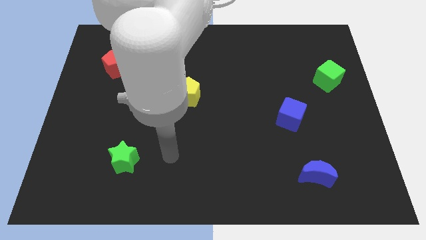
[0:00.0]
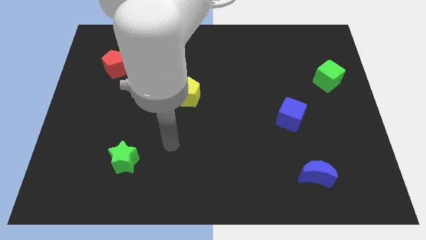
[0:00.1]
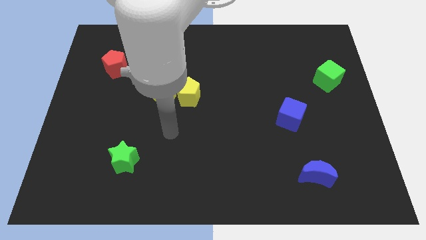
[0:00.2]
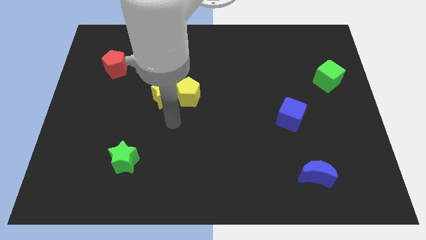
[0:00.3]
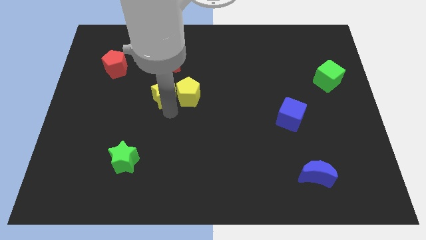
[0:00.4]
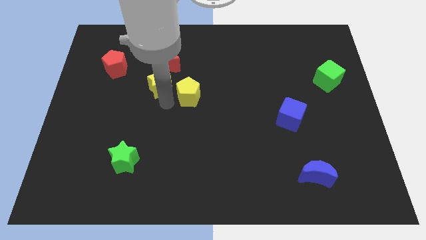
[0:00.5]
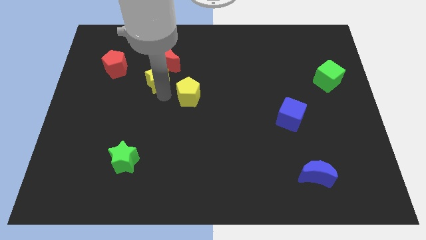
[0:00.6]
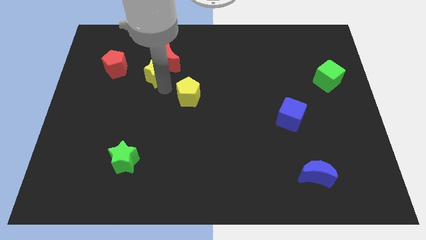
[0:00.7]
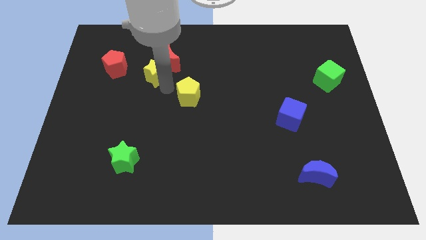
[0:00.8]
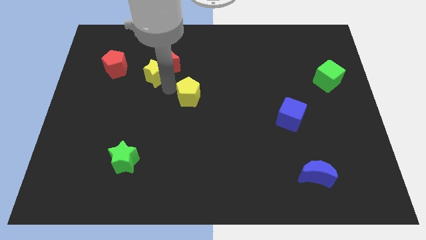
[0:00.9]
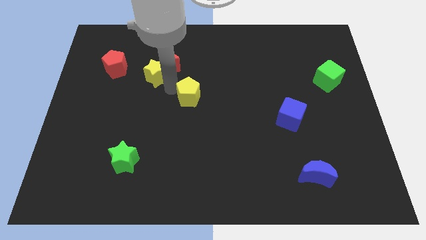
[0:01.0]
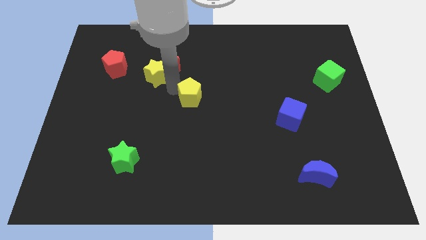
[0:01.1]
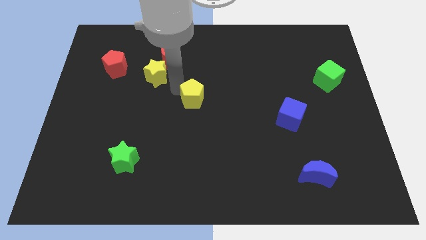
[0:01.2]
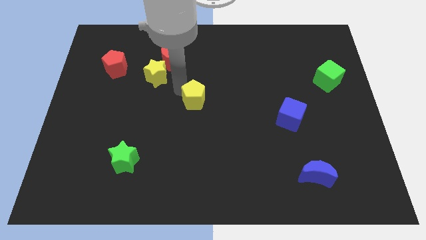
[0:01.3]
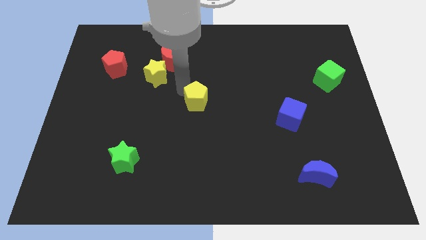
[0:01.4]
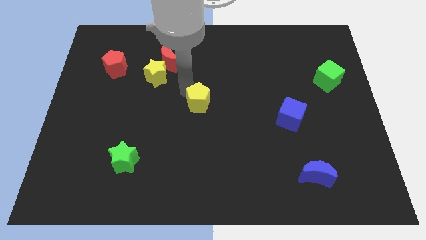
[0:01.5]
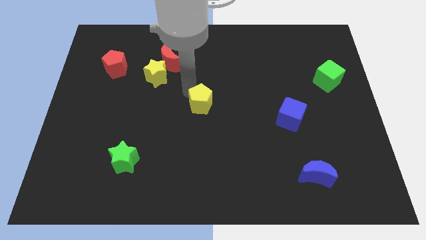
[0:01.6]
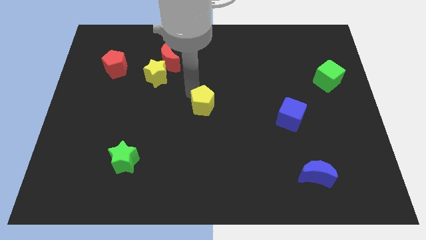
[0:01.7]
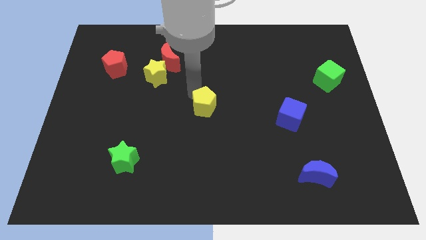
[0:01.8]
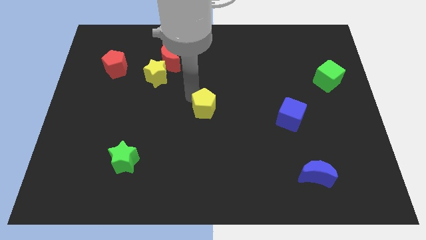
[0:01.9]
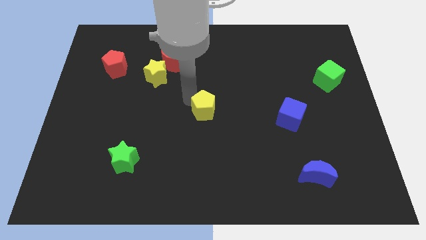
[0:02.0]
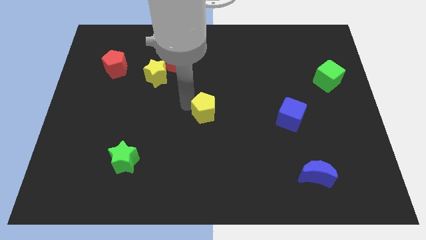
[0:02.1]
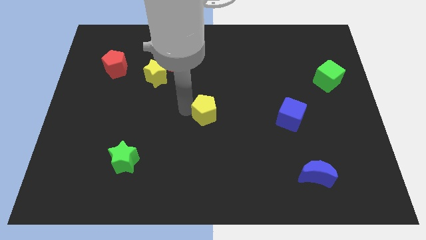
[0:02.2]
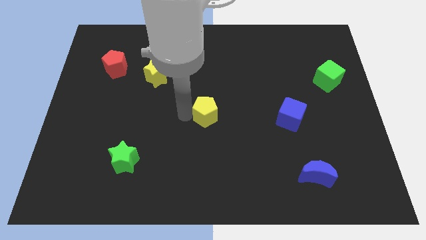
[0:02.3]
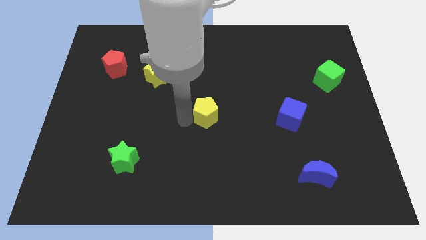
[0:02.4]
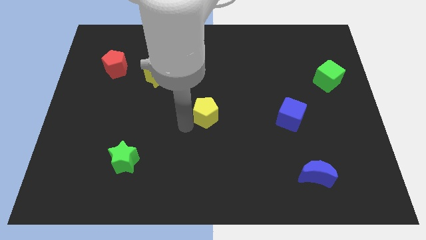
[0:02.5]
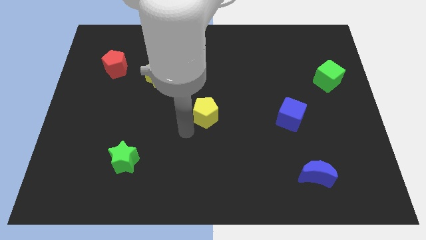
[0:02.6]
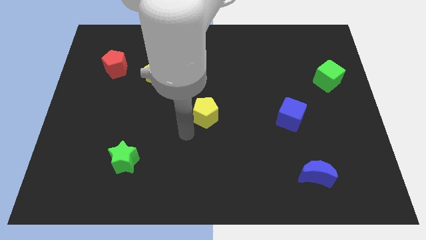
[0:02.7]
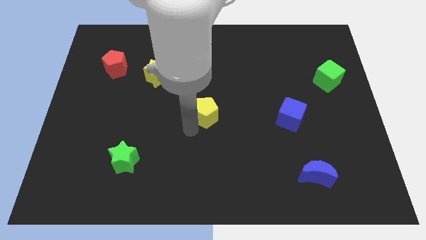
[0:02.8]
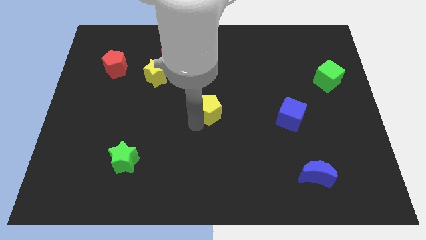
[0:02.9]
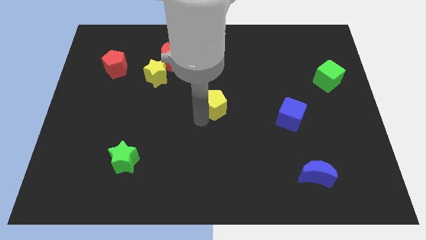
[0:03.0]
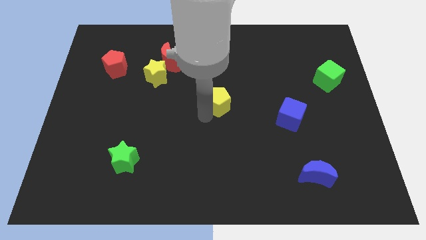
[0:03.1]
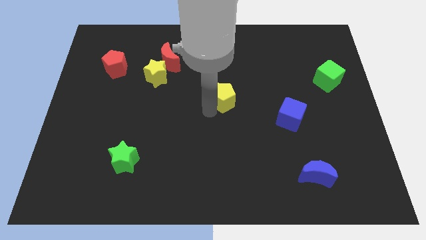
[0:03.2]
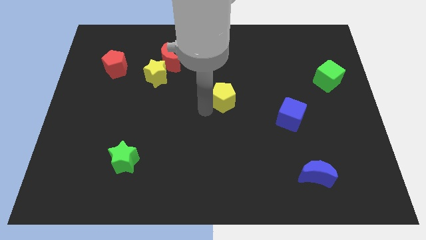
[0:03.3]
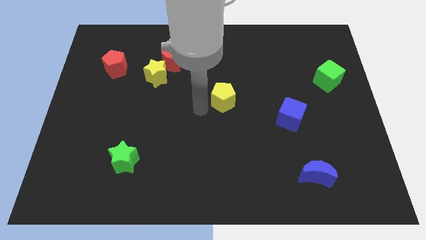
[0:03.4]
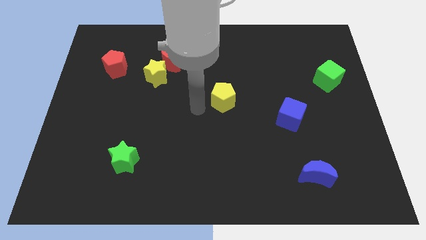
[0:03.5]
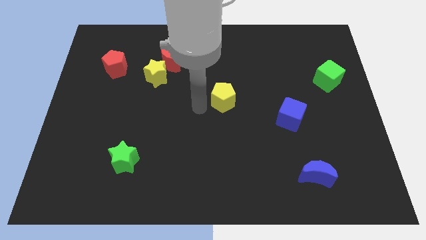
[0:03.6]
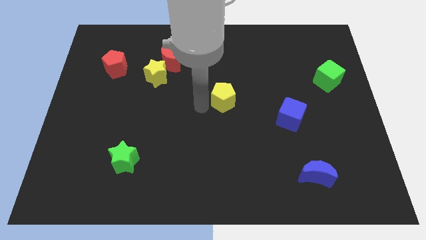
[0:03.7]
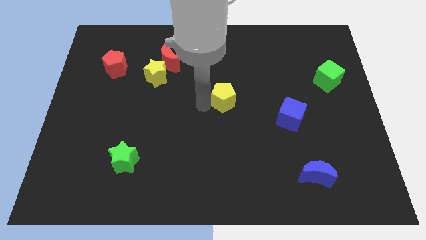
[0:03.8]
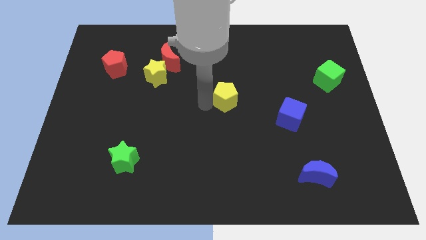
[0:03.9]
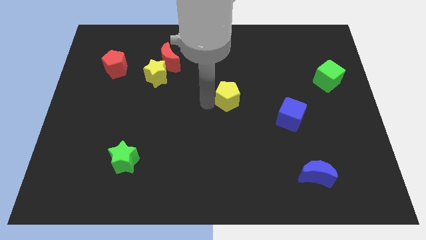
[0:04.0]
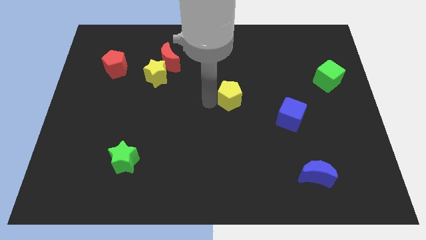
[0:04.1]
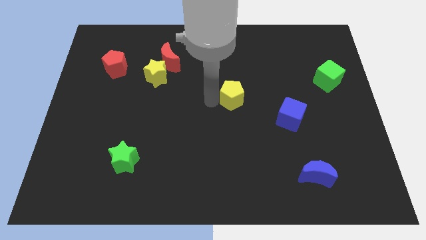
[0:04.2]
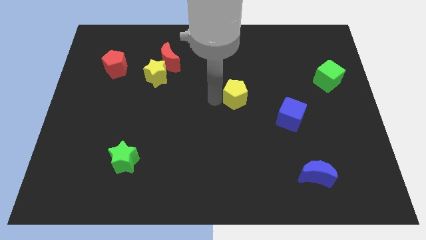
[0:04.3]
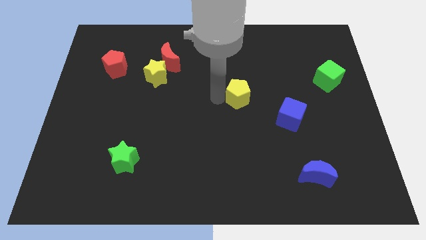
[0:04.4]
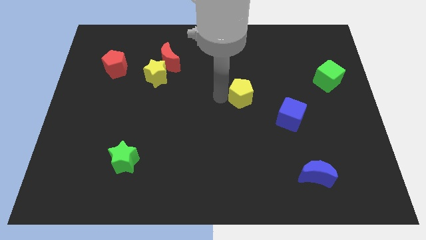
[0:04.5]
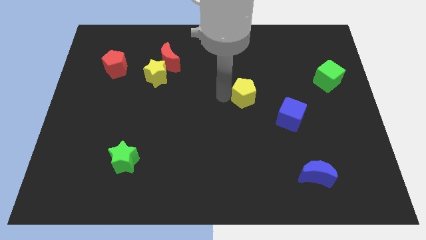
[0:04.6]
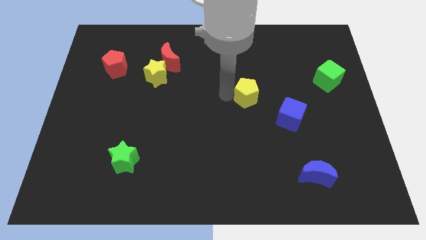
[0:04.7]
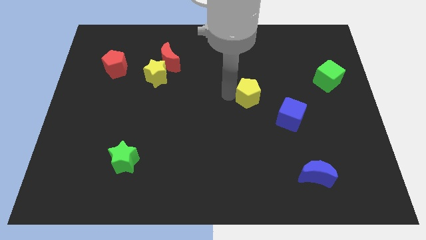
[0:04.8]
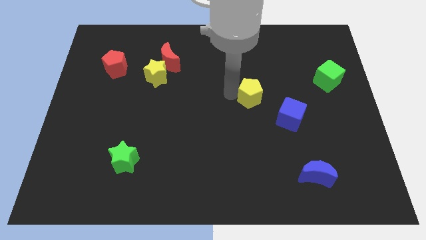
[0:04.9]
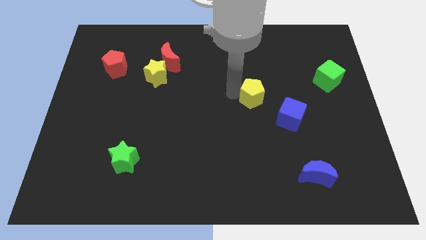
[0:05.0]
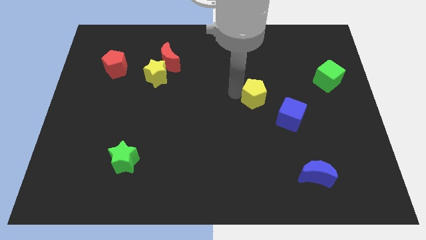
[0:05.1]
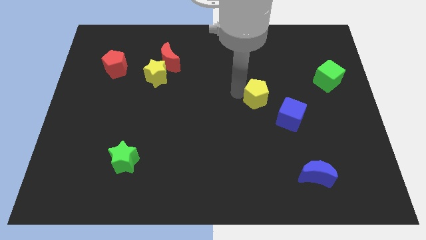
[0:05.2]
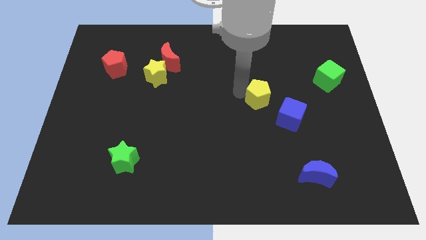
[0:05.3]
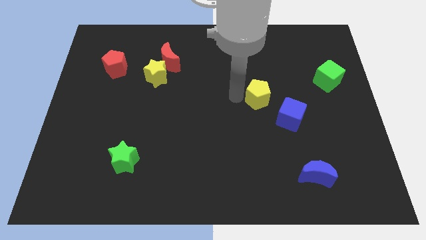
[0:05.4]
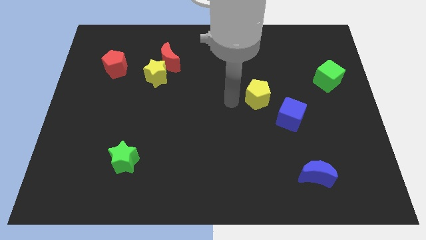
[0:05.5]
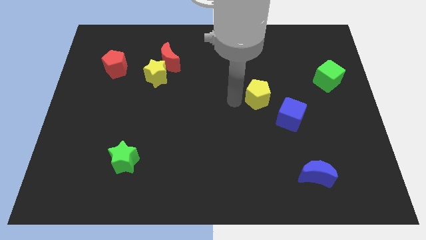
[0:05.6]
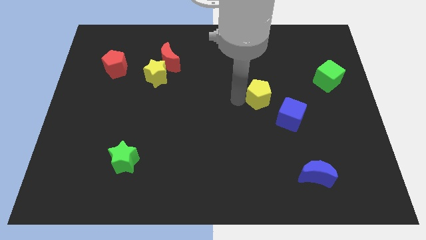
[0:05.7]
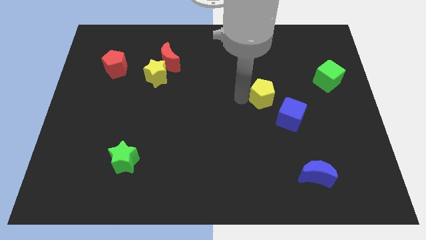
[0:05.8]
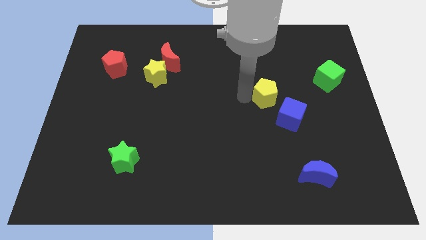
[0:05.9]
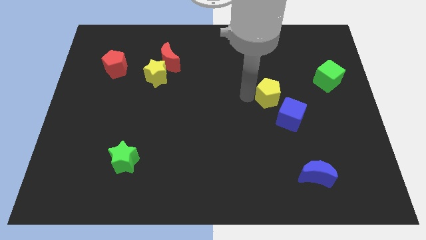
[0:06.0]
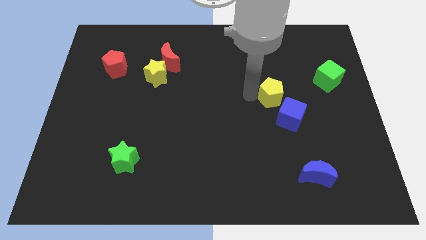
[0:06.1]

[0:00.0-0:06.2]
move the yellow pentagon right

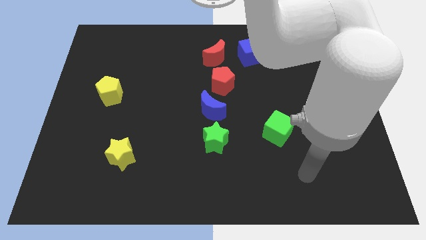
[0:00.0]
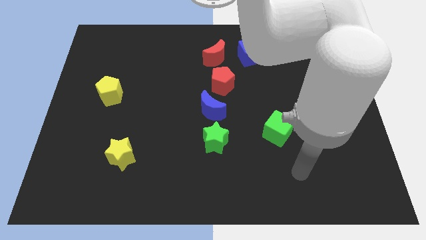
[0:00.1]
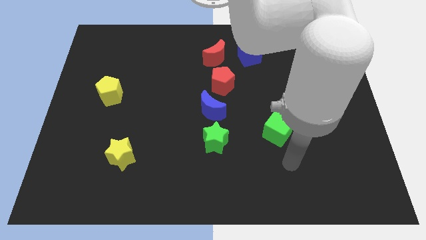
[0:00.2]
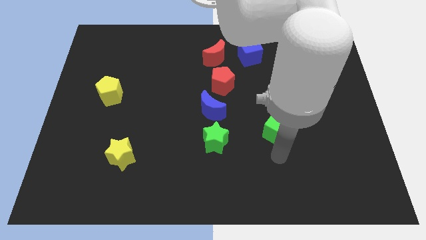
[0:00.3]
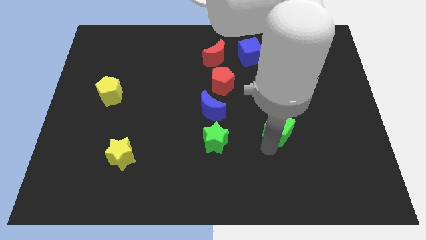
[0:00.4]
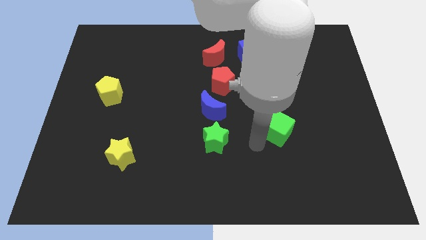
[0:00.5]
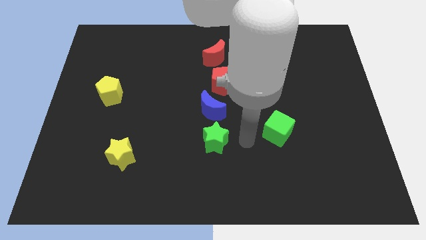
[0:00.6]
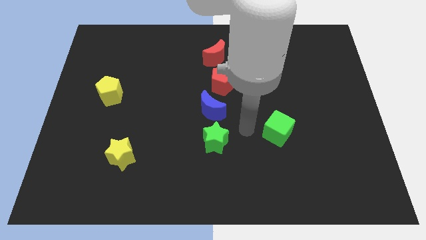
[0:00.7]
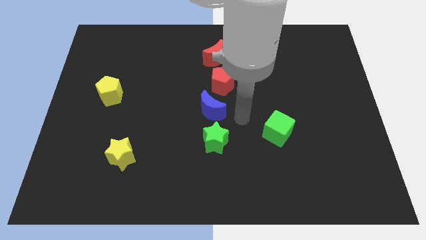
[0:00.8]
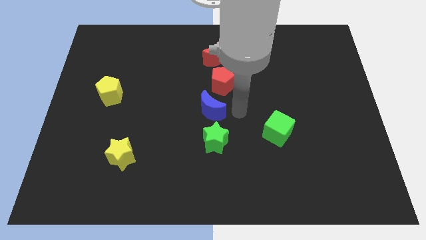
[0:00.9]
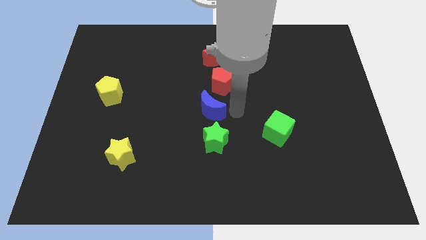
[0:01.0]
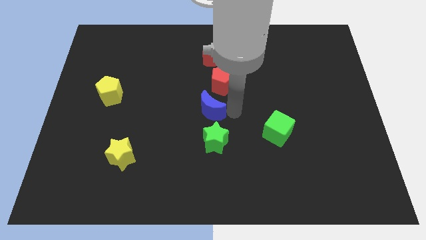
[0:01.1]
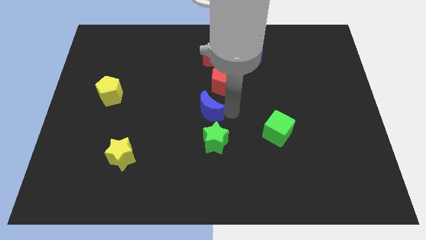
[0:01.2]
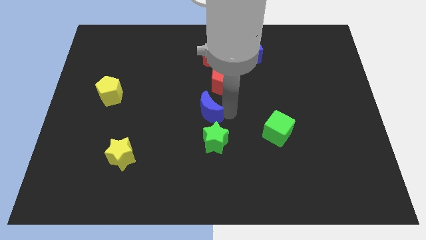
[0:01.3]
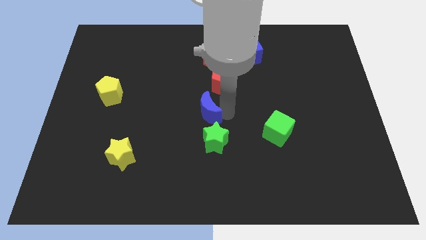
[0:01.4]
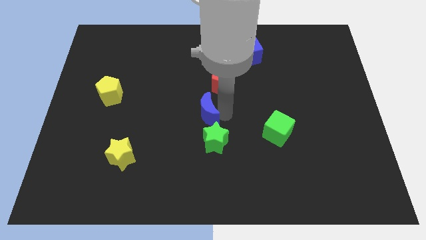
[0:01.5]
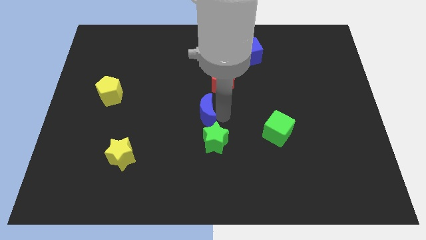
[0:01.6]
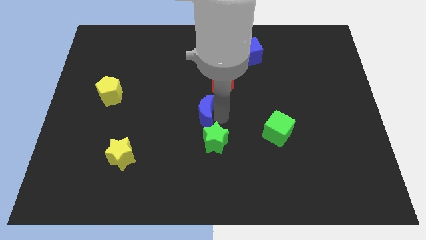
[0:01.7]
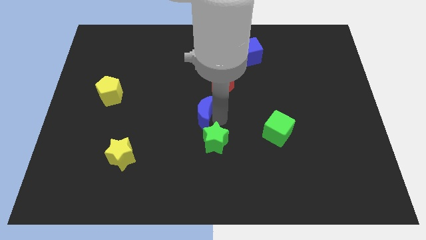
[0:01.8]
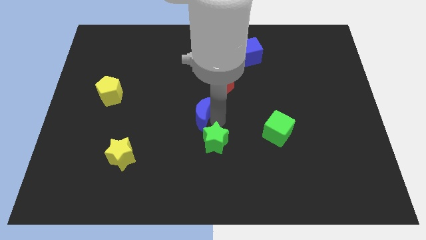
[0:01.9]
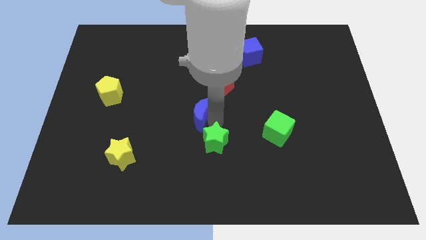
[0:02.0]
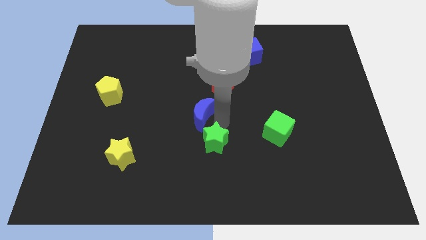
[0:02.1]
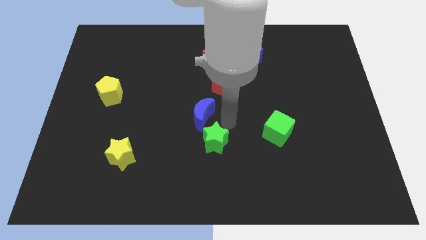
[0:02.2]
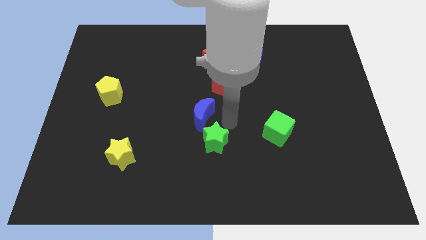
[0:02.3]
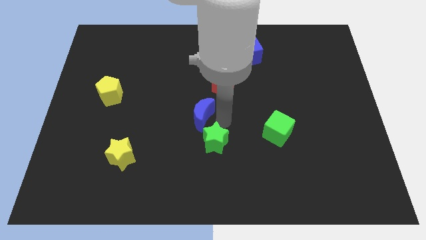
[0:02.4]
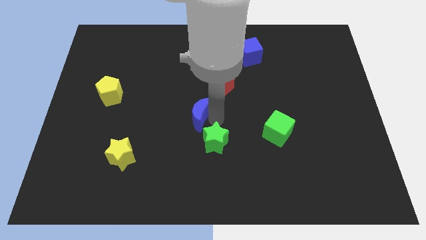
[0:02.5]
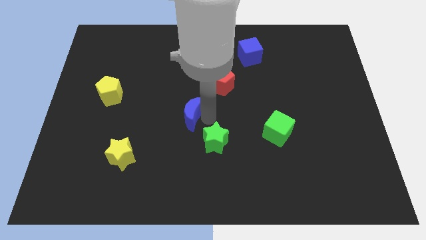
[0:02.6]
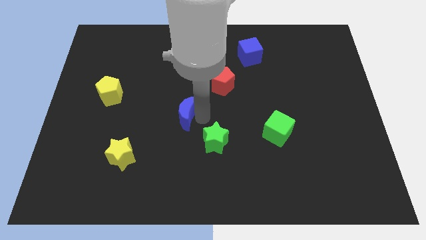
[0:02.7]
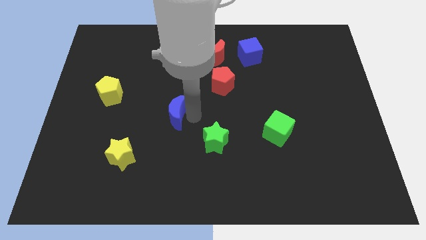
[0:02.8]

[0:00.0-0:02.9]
slide the blue moon to the left slightly
